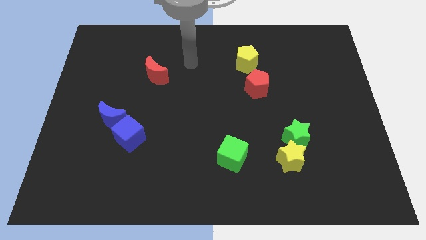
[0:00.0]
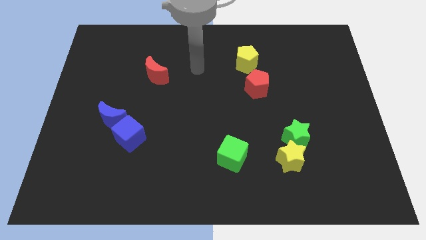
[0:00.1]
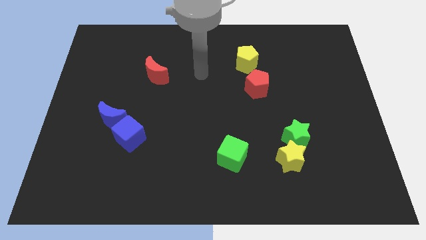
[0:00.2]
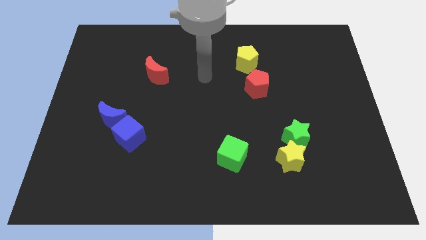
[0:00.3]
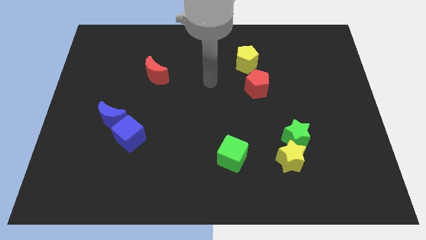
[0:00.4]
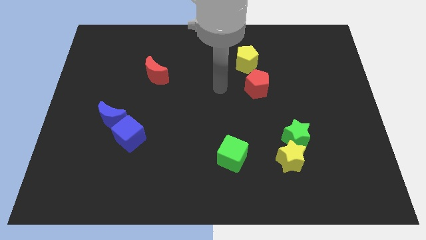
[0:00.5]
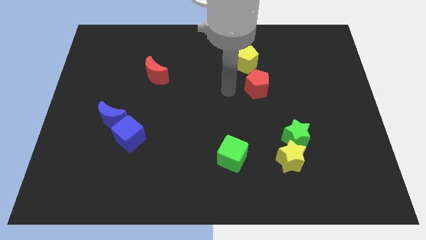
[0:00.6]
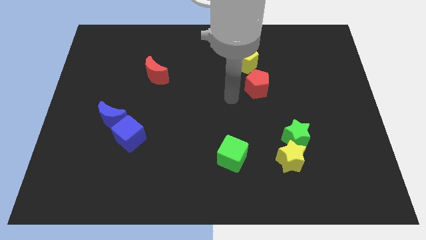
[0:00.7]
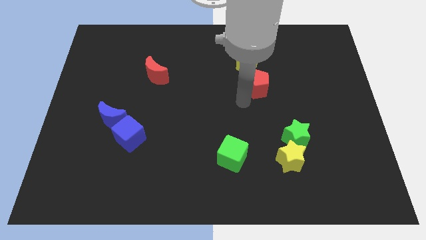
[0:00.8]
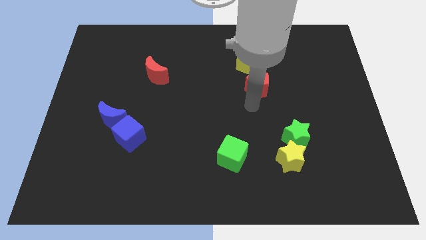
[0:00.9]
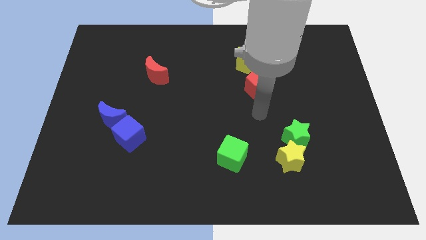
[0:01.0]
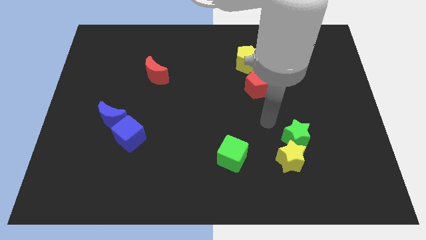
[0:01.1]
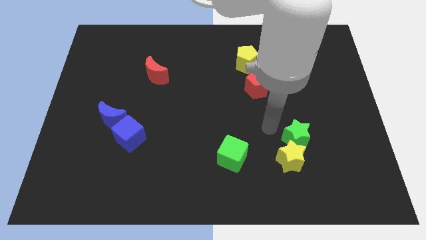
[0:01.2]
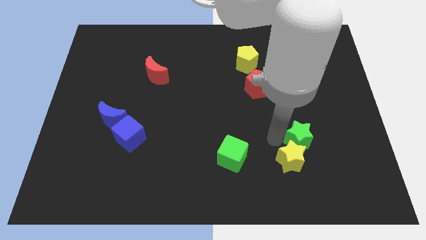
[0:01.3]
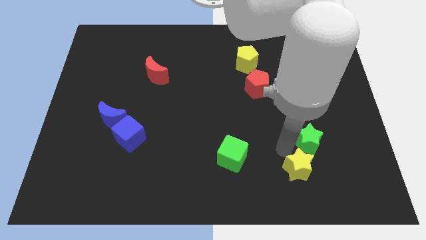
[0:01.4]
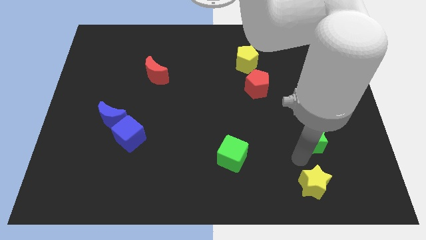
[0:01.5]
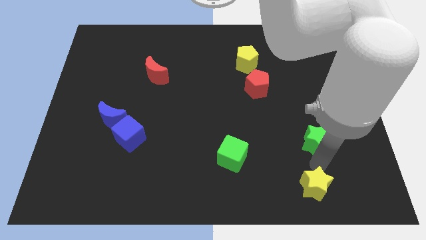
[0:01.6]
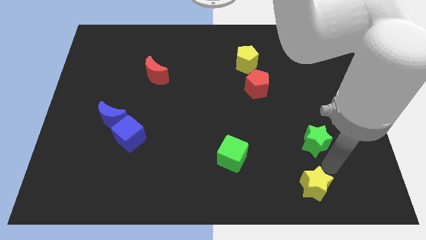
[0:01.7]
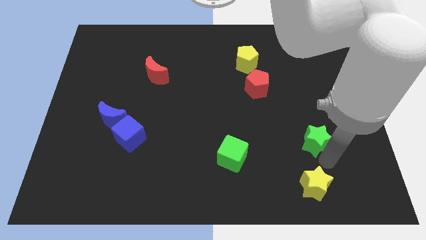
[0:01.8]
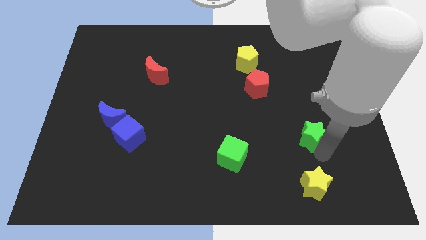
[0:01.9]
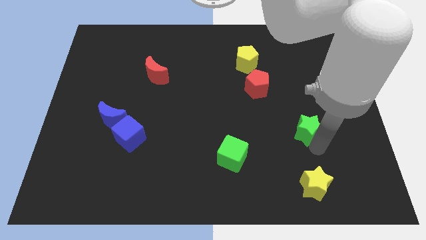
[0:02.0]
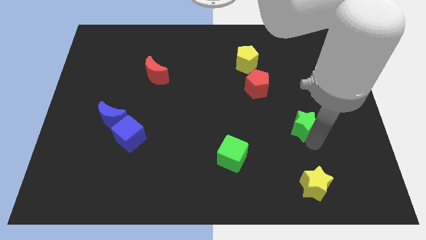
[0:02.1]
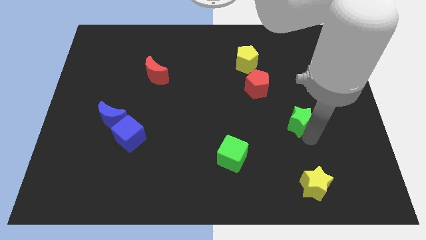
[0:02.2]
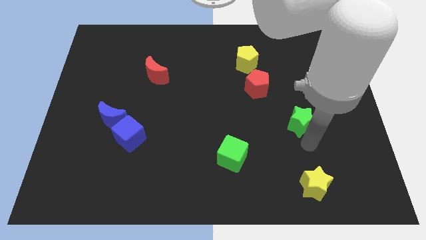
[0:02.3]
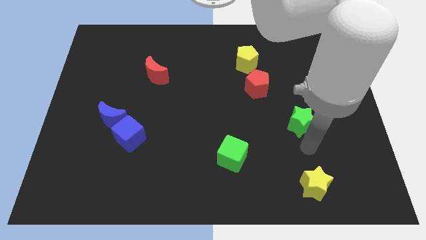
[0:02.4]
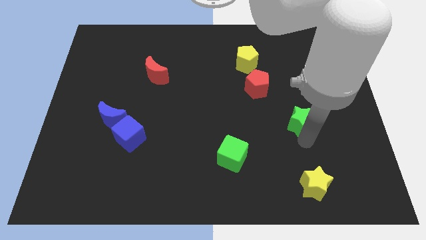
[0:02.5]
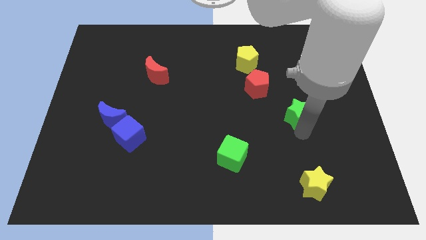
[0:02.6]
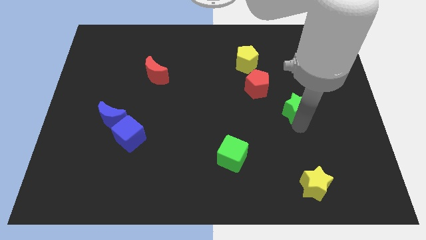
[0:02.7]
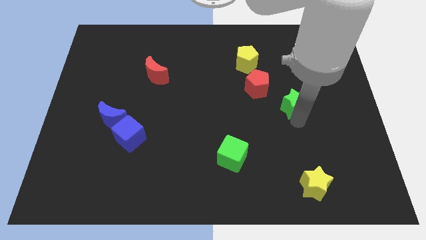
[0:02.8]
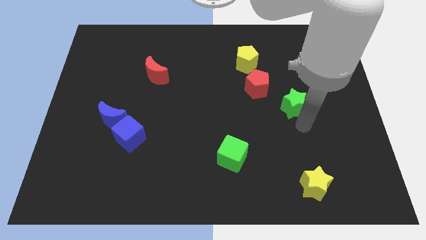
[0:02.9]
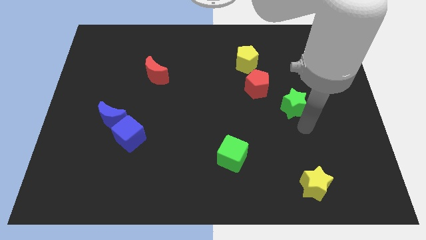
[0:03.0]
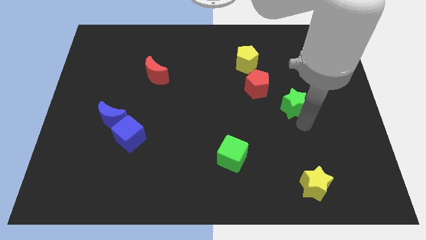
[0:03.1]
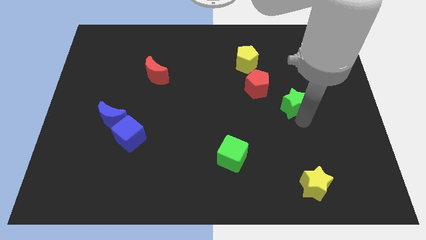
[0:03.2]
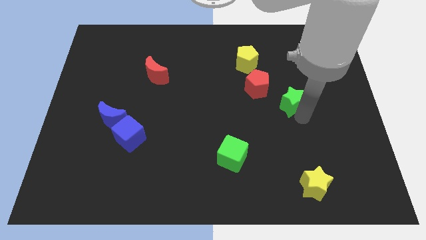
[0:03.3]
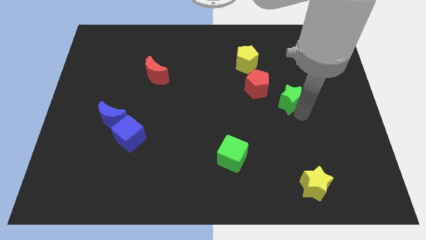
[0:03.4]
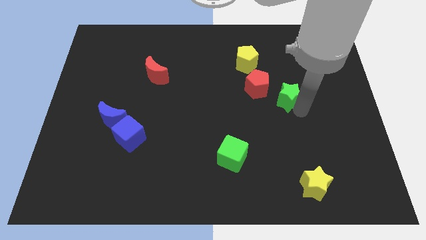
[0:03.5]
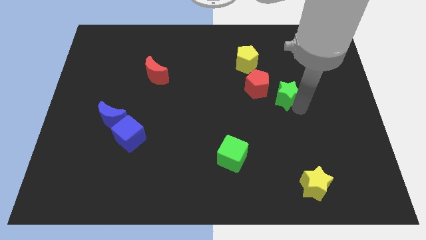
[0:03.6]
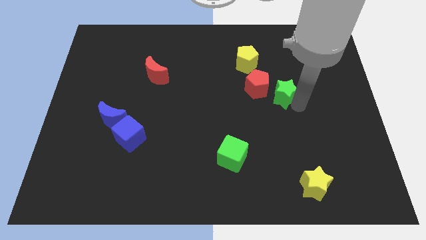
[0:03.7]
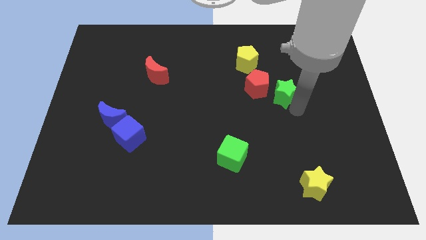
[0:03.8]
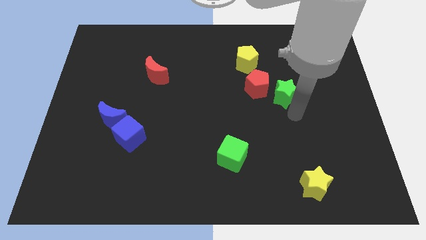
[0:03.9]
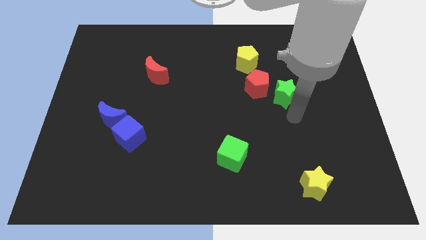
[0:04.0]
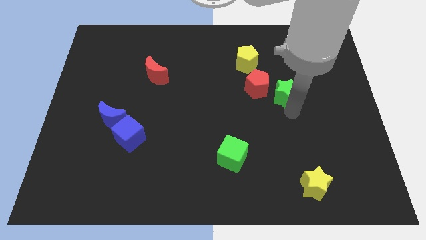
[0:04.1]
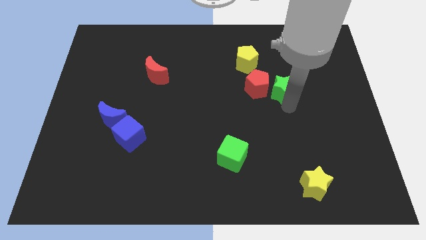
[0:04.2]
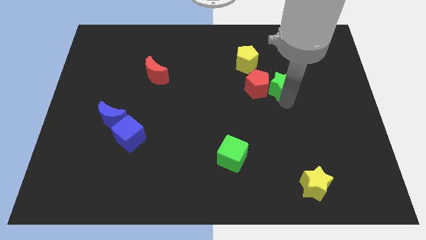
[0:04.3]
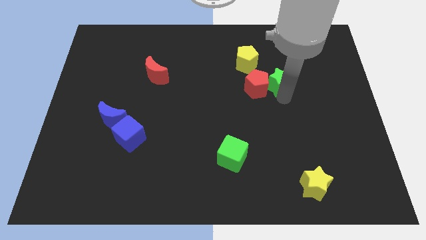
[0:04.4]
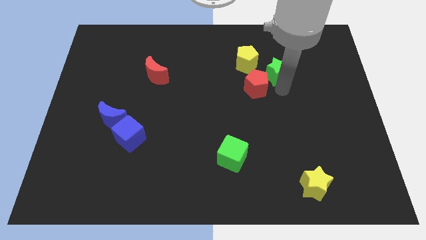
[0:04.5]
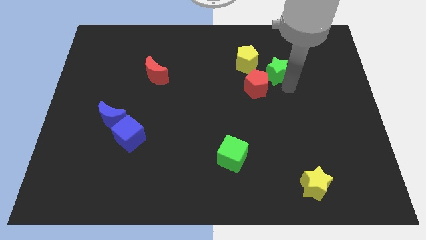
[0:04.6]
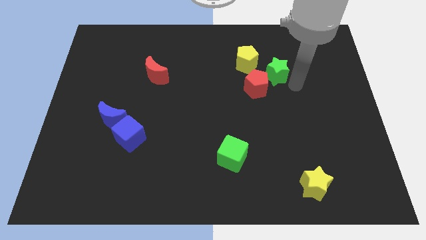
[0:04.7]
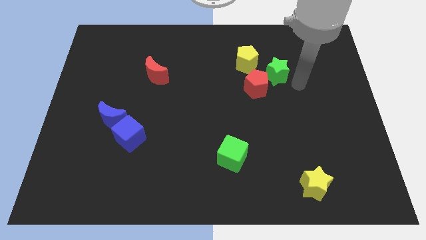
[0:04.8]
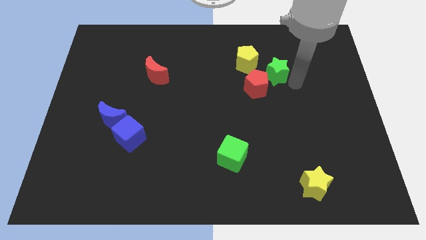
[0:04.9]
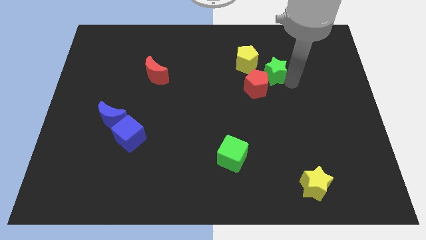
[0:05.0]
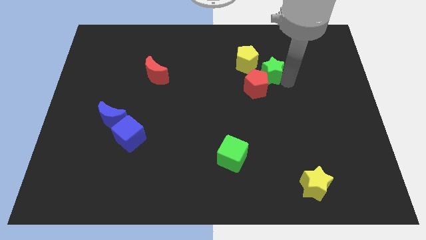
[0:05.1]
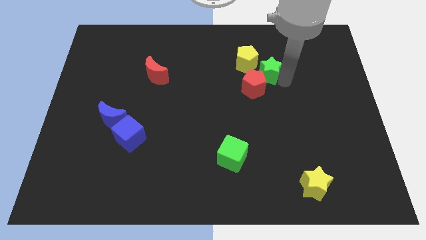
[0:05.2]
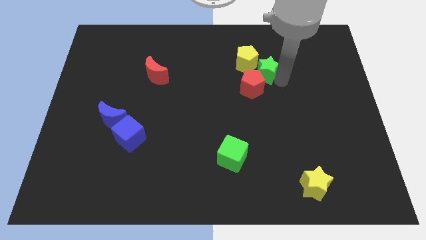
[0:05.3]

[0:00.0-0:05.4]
push the green star close to the yellow pentagon

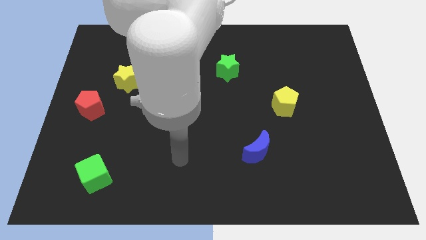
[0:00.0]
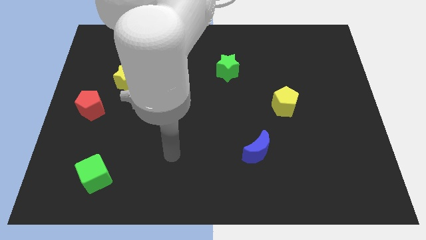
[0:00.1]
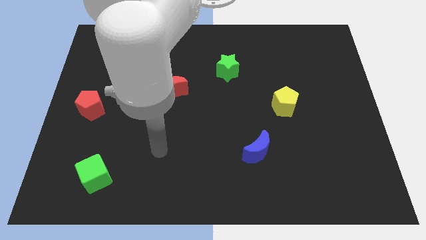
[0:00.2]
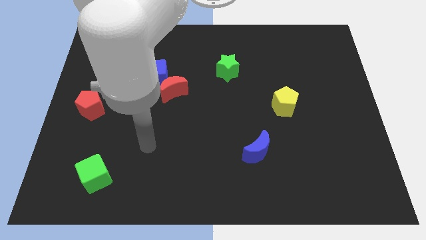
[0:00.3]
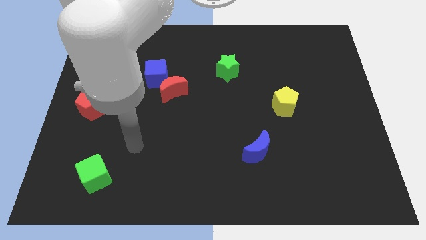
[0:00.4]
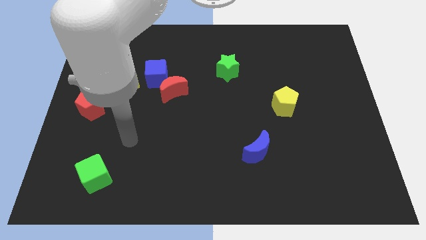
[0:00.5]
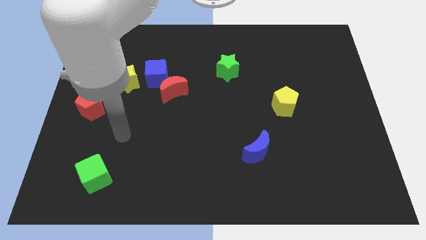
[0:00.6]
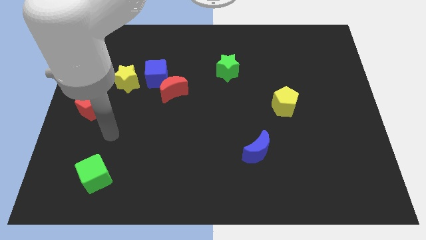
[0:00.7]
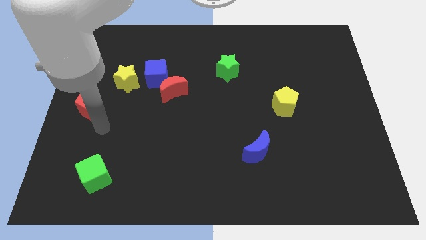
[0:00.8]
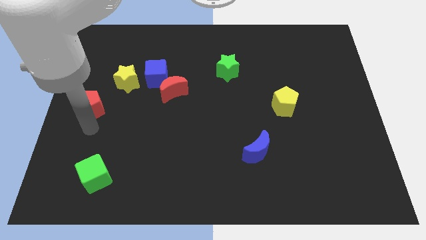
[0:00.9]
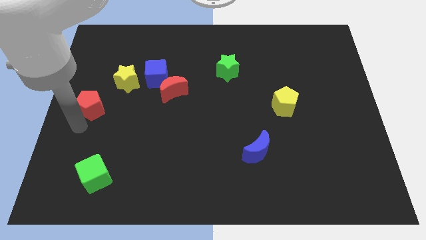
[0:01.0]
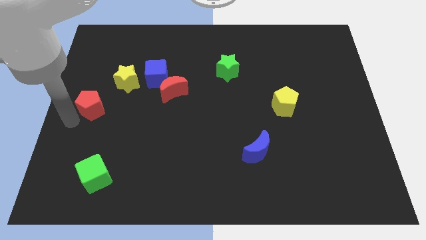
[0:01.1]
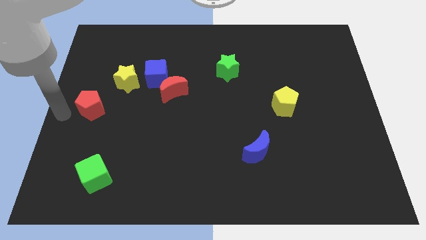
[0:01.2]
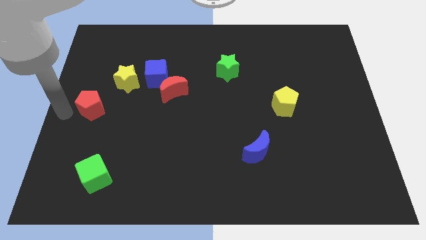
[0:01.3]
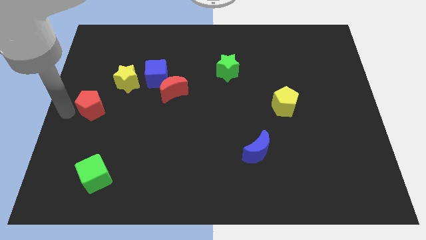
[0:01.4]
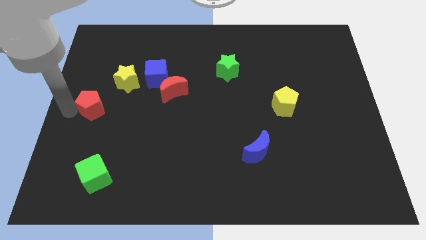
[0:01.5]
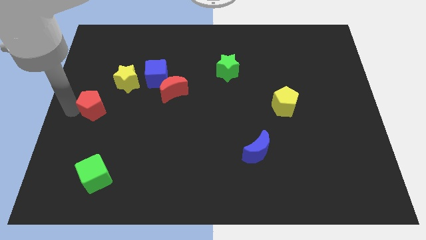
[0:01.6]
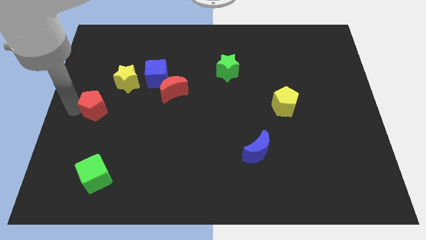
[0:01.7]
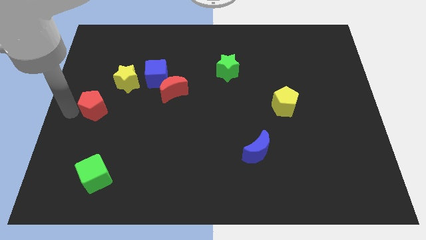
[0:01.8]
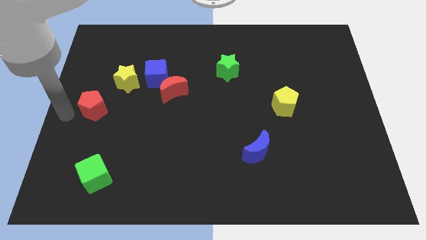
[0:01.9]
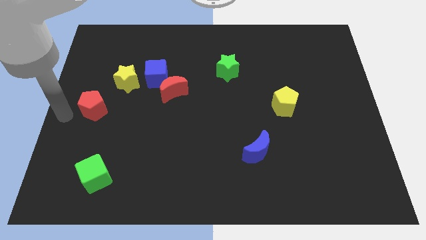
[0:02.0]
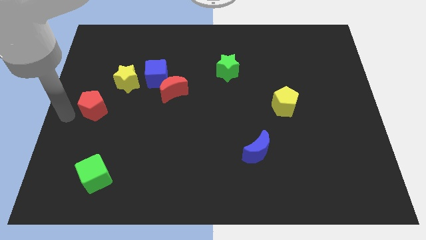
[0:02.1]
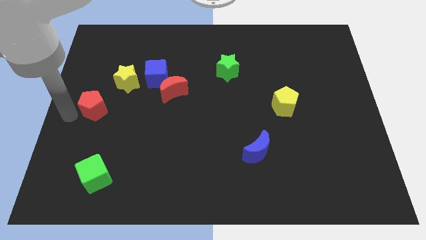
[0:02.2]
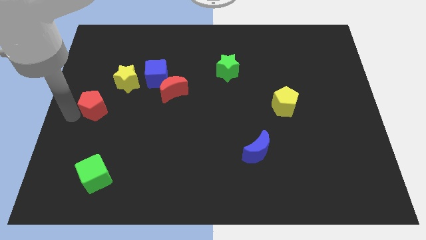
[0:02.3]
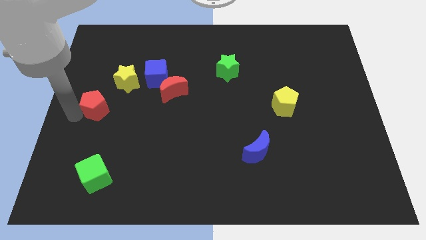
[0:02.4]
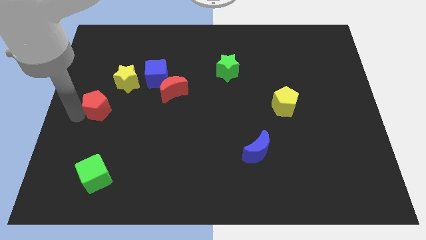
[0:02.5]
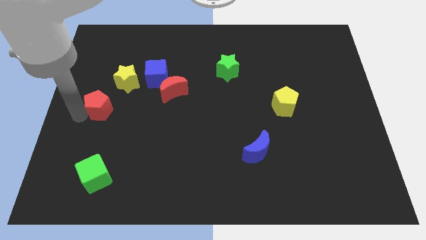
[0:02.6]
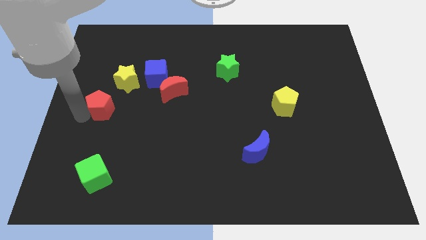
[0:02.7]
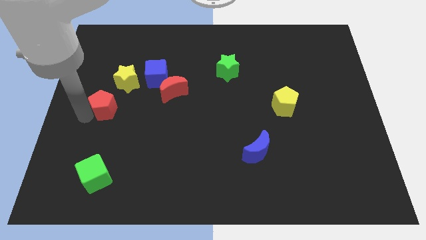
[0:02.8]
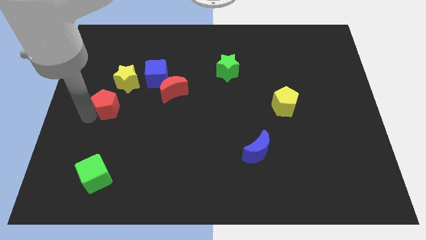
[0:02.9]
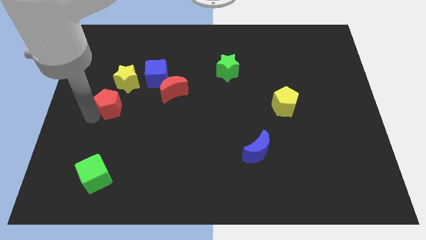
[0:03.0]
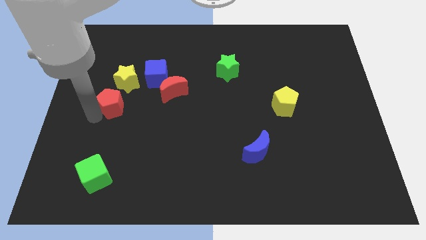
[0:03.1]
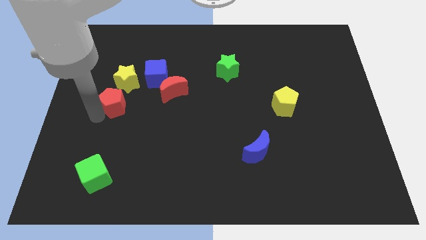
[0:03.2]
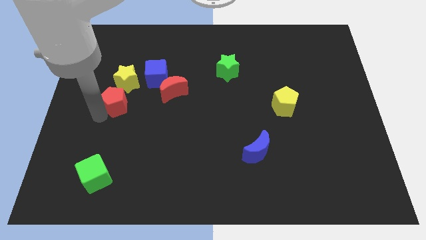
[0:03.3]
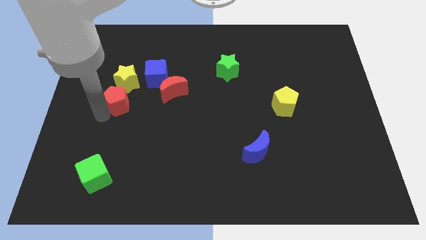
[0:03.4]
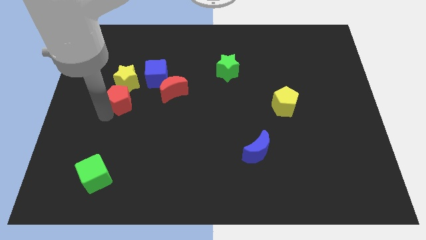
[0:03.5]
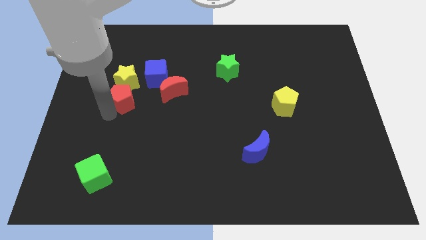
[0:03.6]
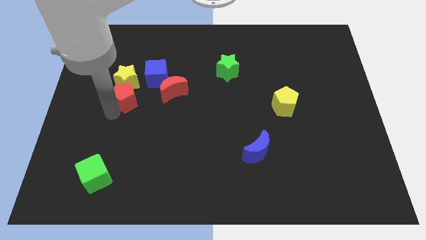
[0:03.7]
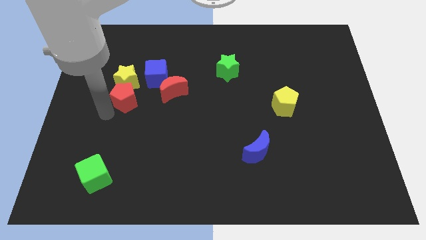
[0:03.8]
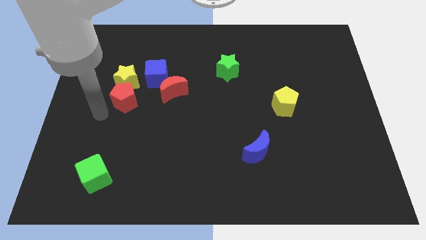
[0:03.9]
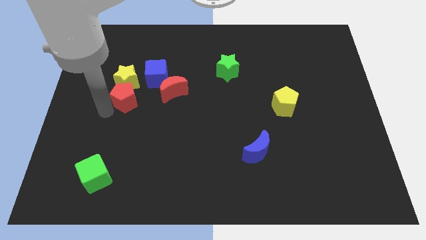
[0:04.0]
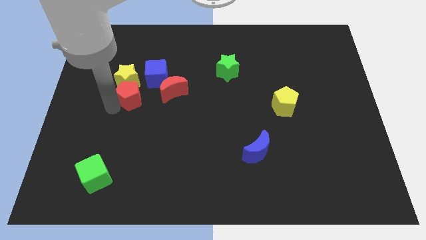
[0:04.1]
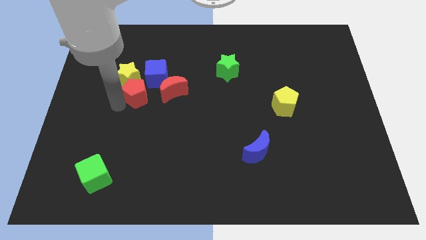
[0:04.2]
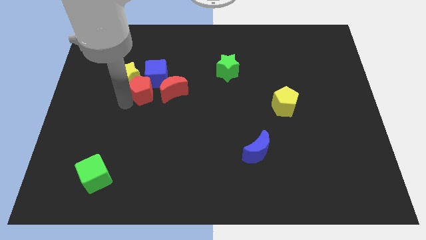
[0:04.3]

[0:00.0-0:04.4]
move the red pentagon close to the blue cube
